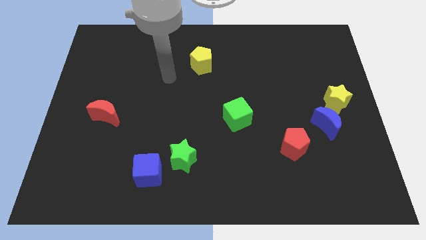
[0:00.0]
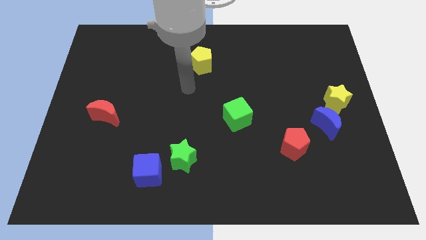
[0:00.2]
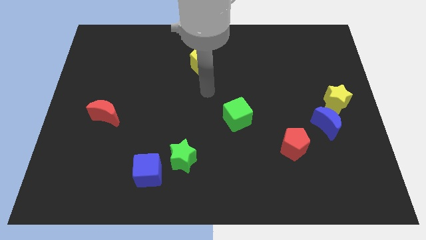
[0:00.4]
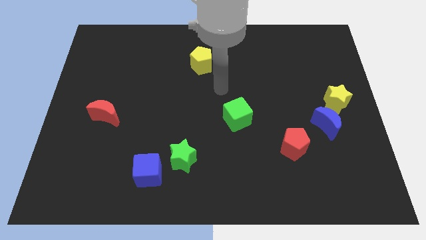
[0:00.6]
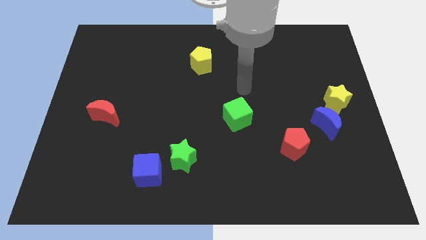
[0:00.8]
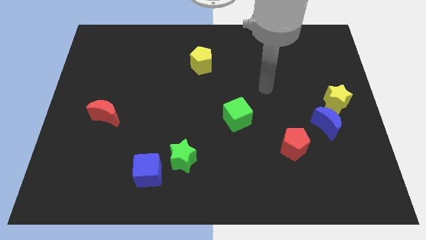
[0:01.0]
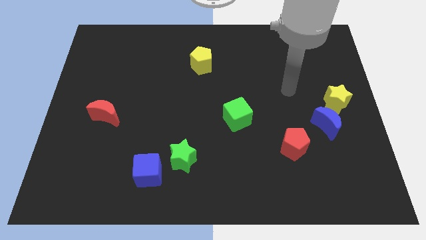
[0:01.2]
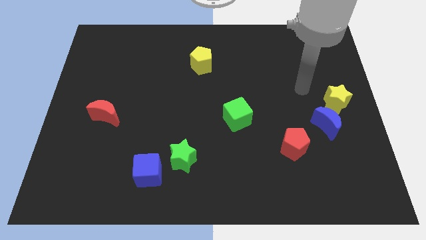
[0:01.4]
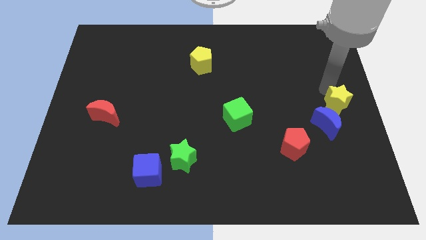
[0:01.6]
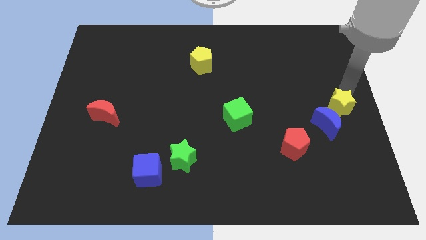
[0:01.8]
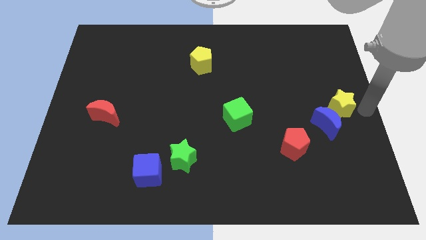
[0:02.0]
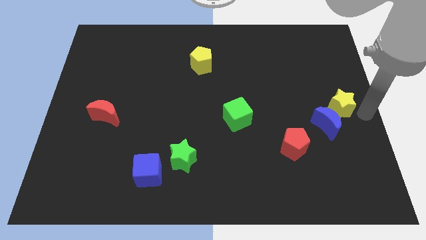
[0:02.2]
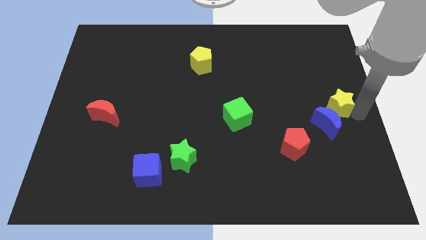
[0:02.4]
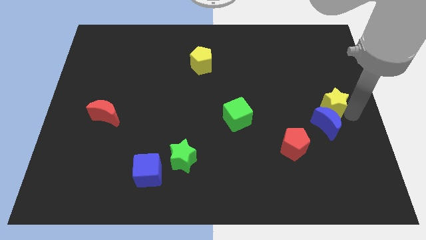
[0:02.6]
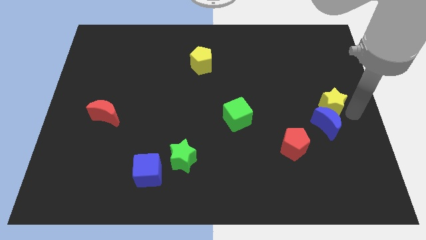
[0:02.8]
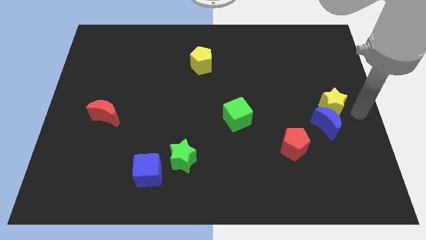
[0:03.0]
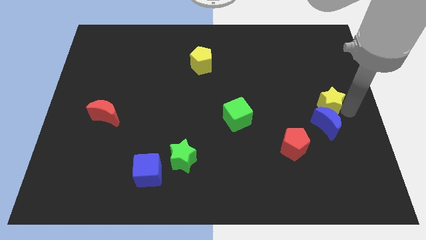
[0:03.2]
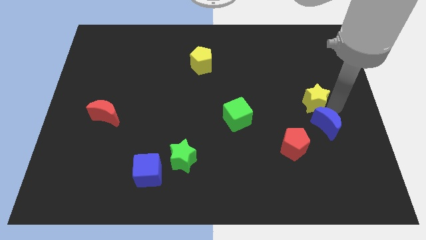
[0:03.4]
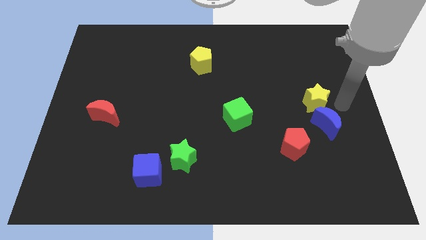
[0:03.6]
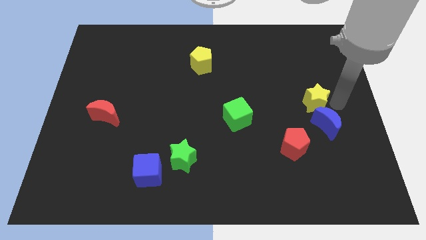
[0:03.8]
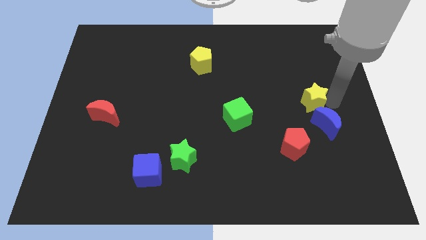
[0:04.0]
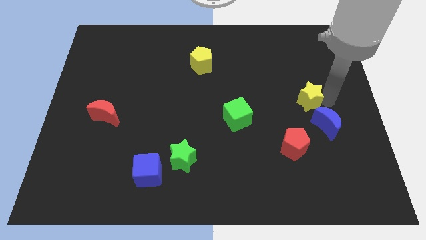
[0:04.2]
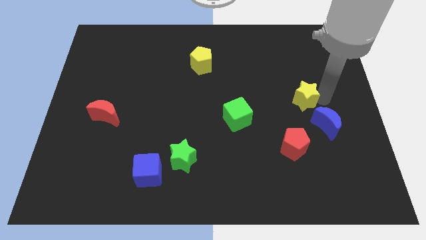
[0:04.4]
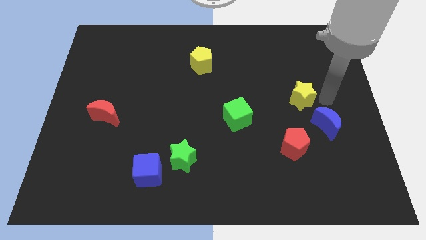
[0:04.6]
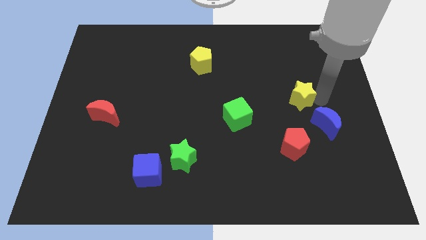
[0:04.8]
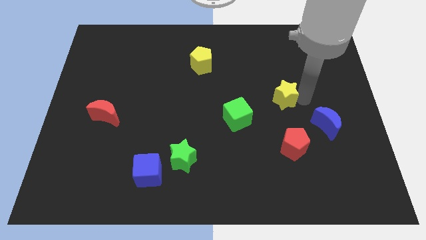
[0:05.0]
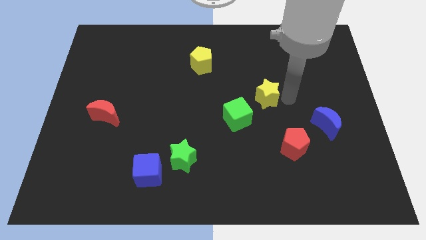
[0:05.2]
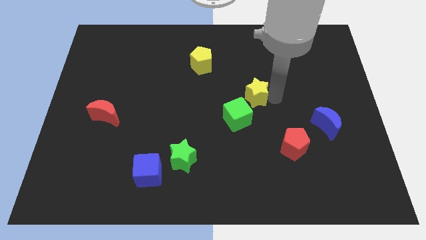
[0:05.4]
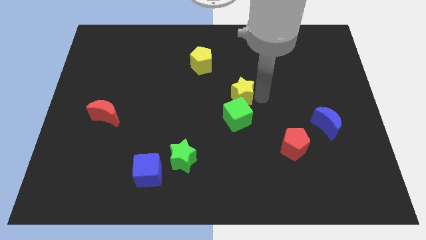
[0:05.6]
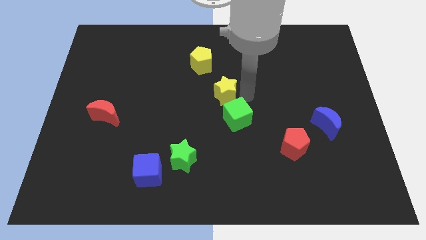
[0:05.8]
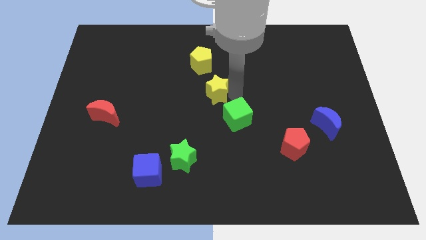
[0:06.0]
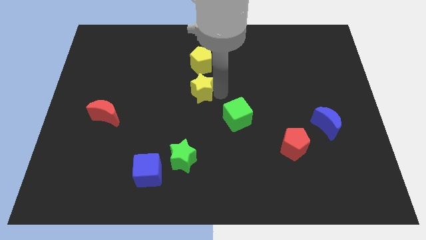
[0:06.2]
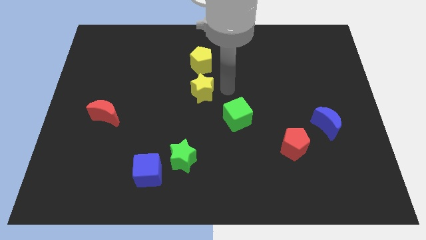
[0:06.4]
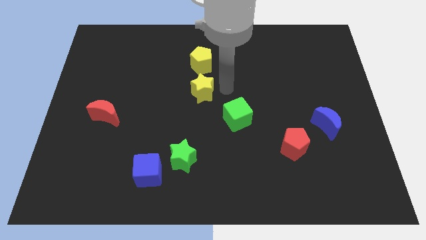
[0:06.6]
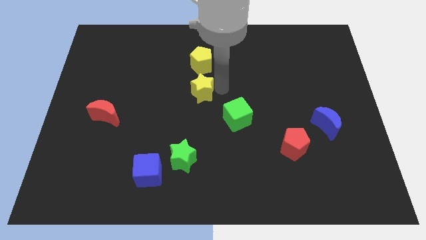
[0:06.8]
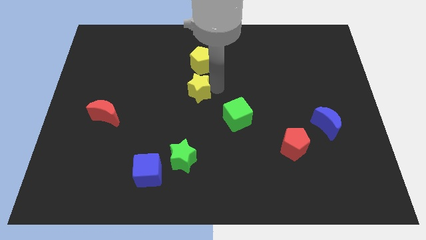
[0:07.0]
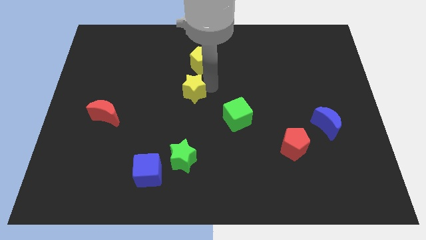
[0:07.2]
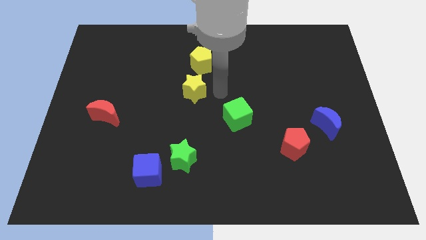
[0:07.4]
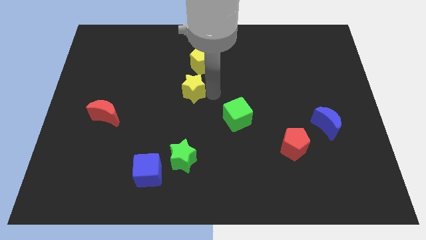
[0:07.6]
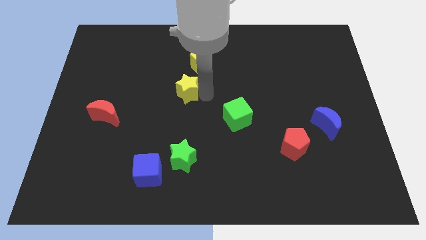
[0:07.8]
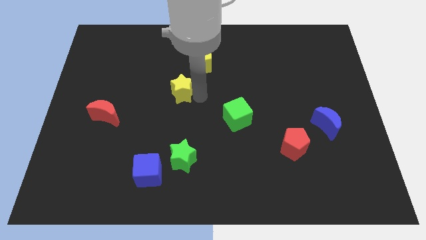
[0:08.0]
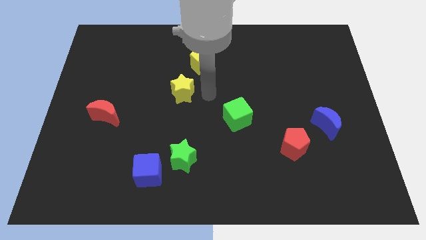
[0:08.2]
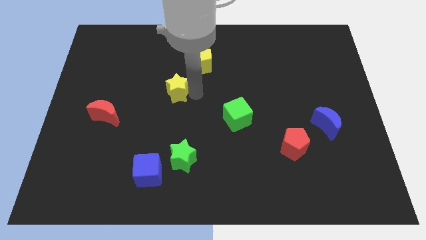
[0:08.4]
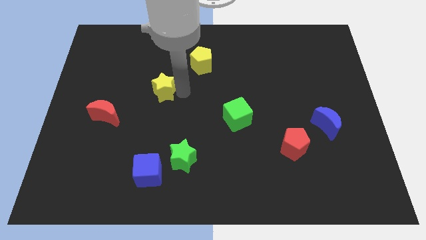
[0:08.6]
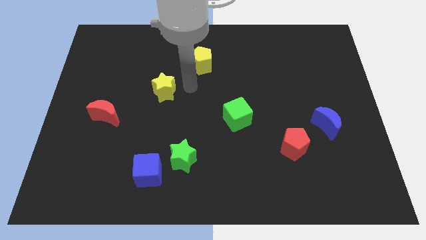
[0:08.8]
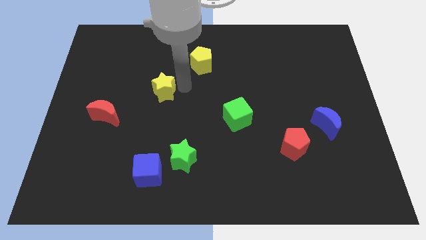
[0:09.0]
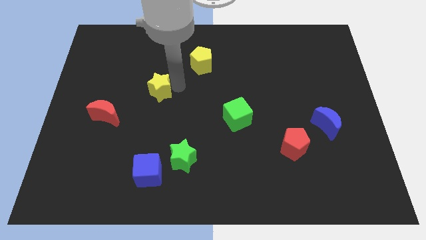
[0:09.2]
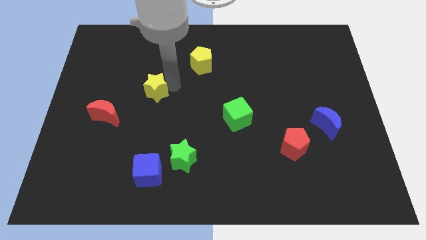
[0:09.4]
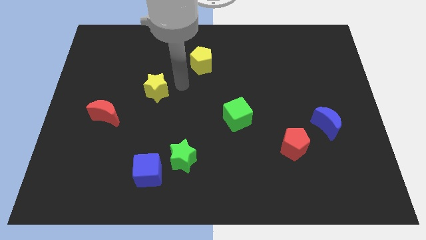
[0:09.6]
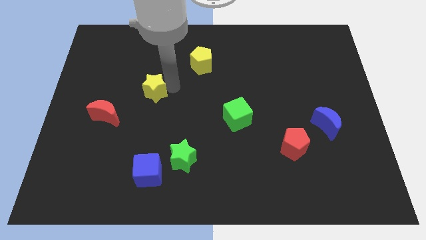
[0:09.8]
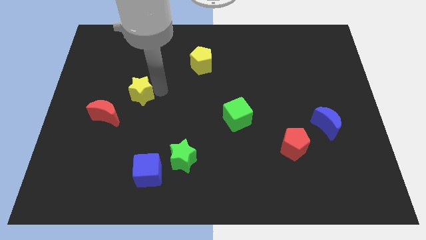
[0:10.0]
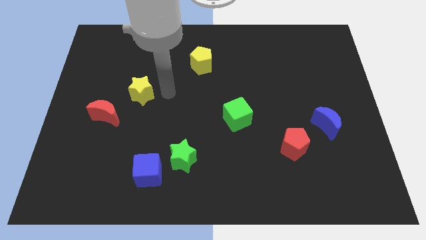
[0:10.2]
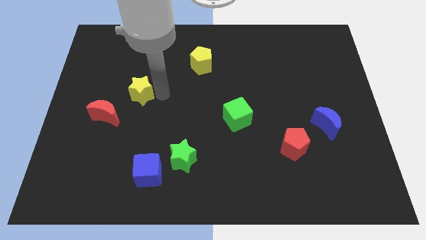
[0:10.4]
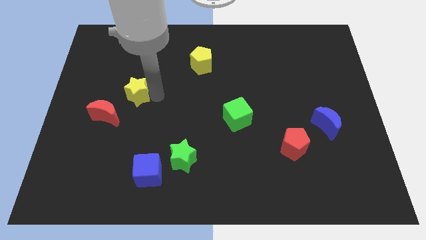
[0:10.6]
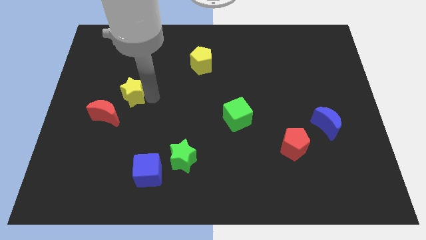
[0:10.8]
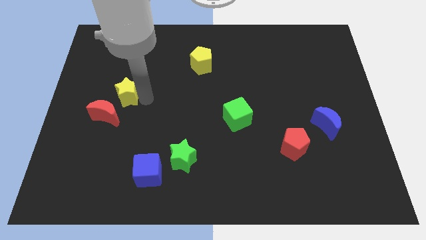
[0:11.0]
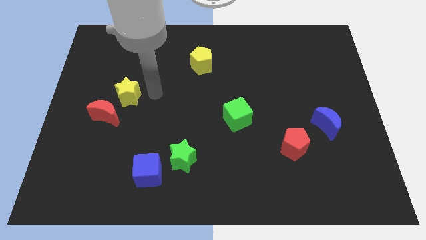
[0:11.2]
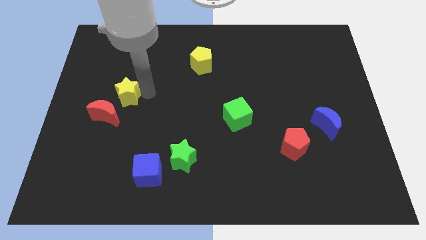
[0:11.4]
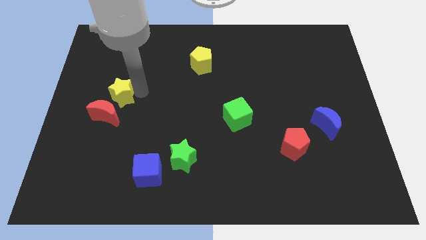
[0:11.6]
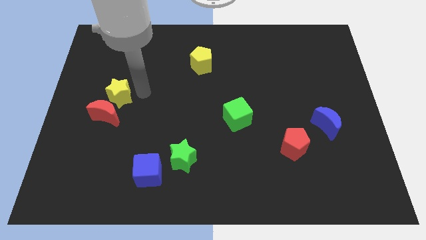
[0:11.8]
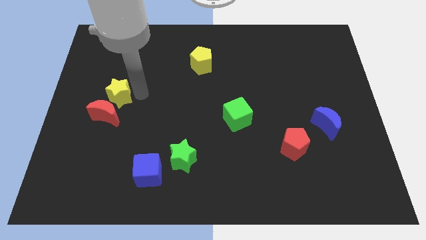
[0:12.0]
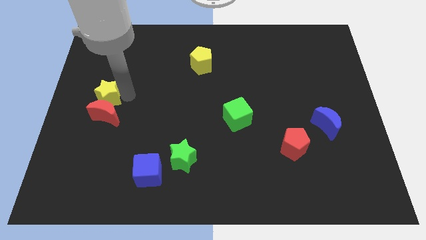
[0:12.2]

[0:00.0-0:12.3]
move the yellow star to the left side of the board
